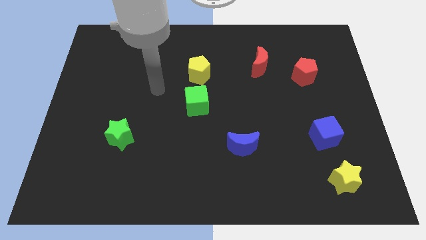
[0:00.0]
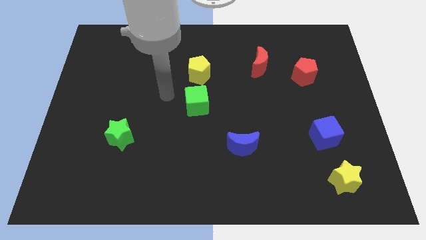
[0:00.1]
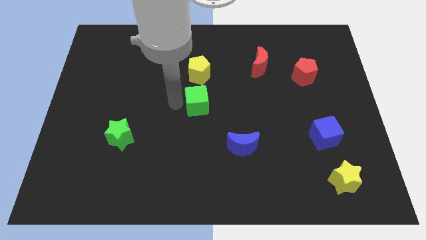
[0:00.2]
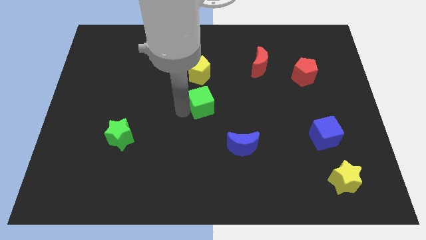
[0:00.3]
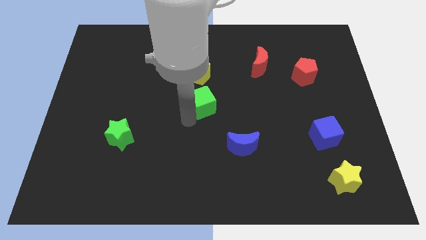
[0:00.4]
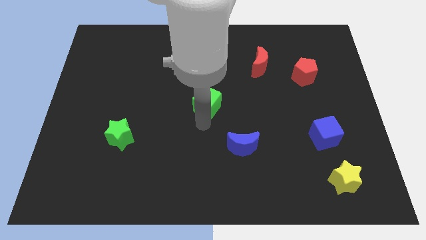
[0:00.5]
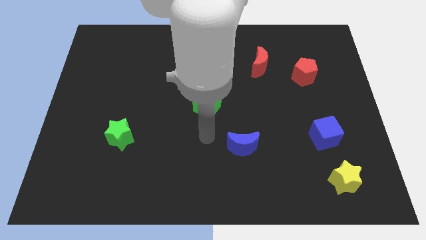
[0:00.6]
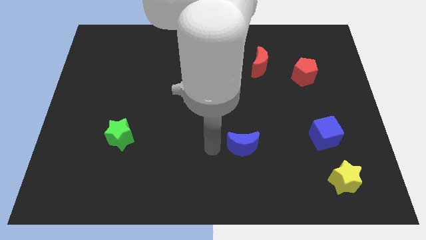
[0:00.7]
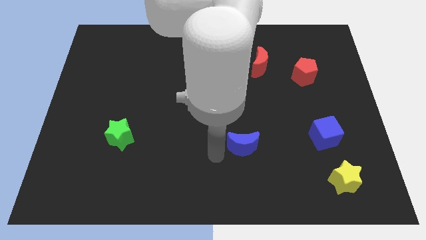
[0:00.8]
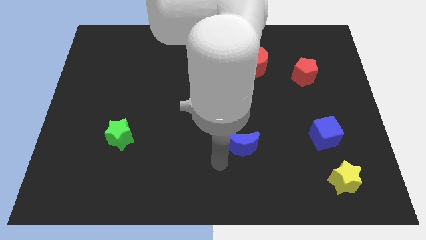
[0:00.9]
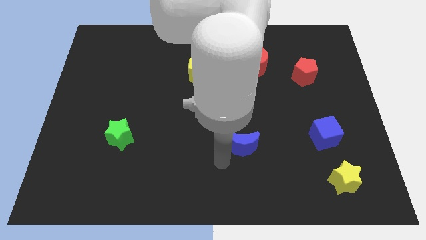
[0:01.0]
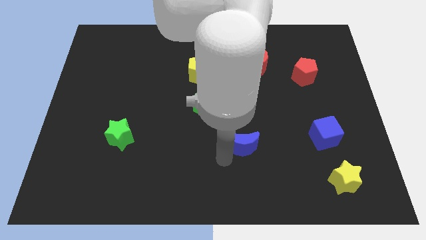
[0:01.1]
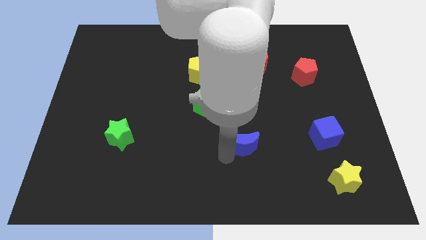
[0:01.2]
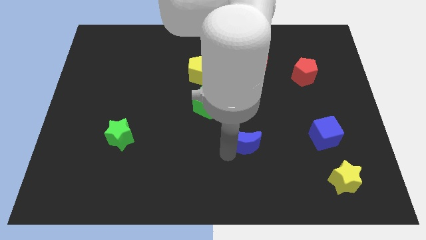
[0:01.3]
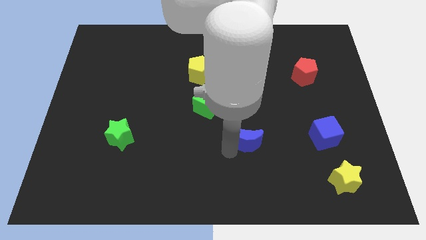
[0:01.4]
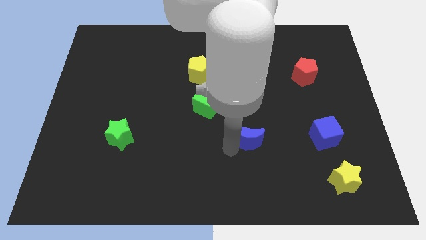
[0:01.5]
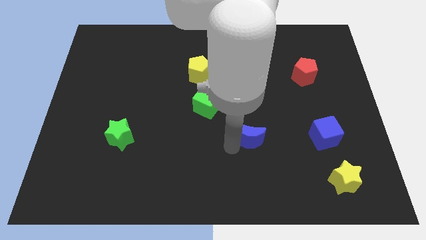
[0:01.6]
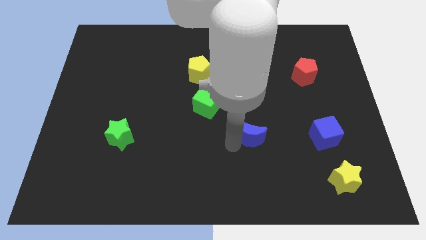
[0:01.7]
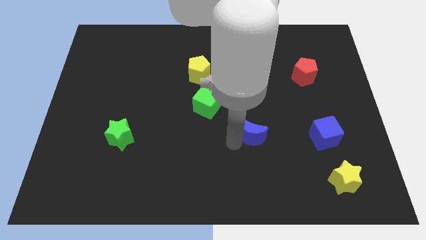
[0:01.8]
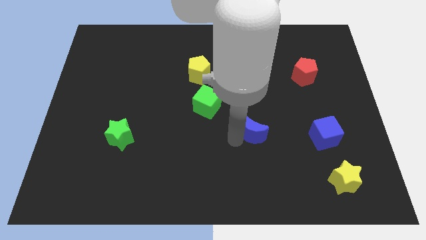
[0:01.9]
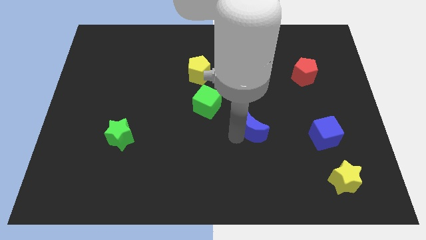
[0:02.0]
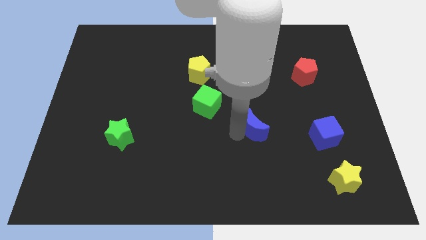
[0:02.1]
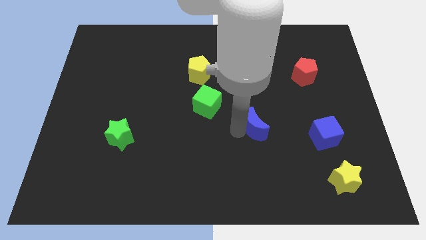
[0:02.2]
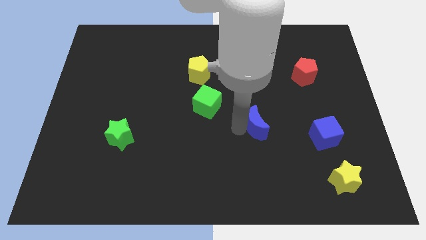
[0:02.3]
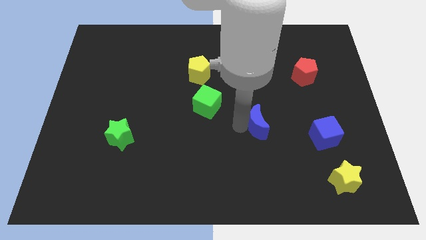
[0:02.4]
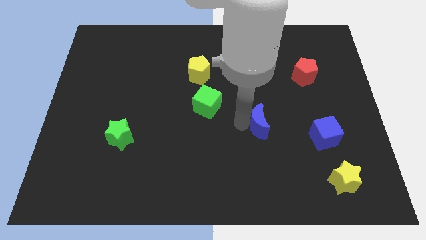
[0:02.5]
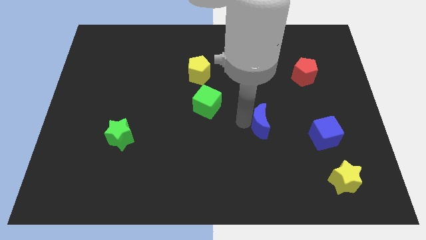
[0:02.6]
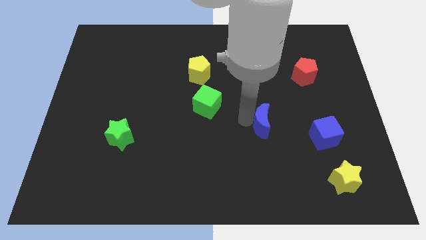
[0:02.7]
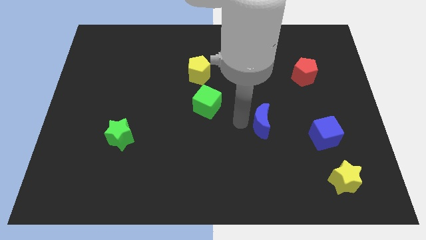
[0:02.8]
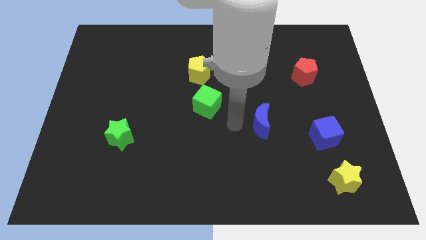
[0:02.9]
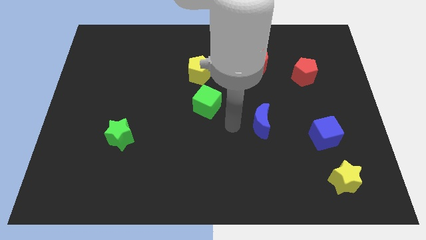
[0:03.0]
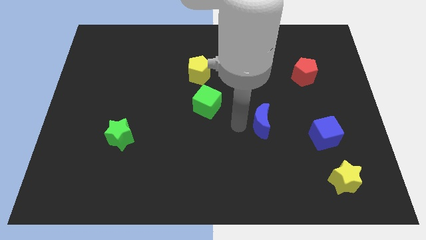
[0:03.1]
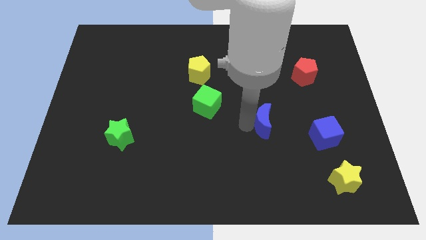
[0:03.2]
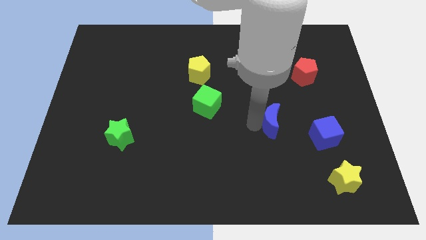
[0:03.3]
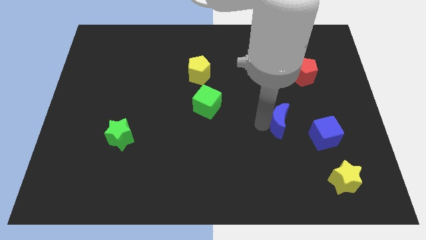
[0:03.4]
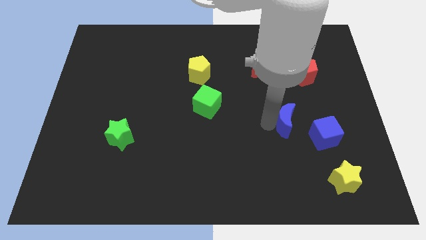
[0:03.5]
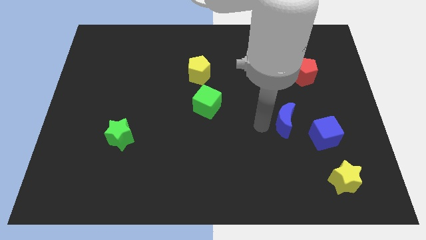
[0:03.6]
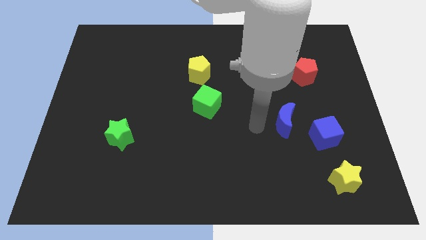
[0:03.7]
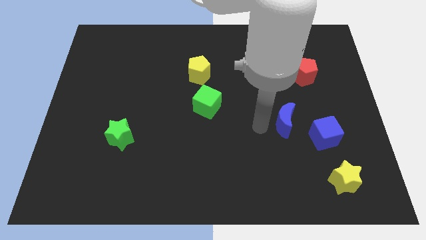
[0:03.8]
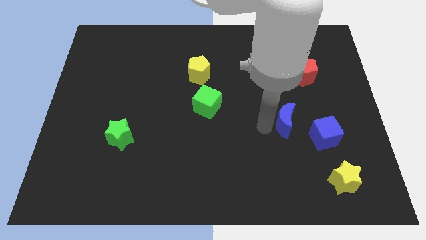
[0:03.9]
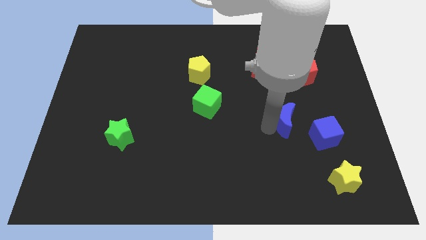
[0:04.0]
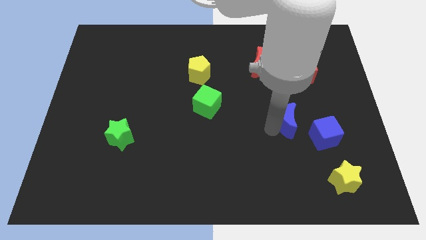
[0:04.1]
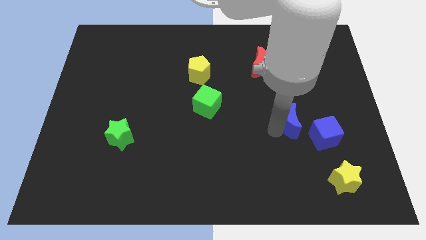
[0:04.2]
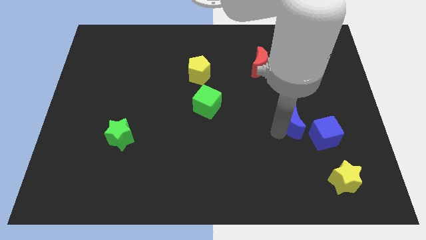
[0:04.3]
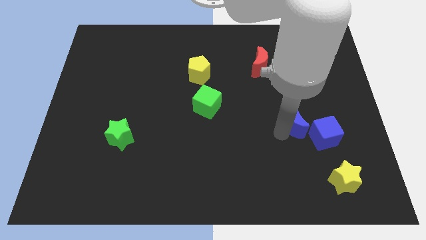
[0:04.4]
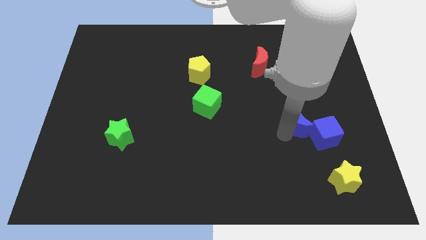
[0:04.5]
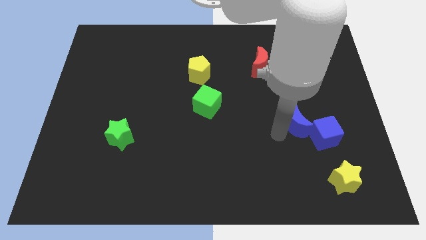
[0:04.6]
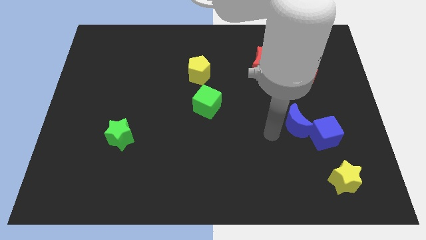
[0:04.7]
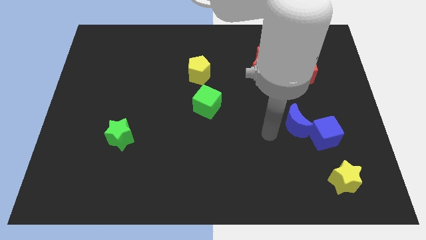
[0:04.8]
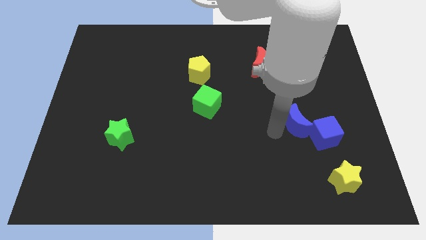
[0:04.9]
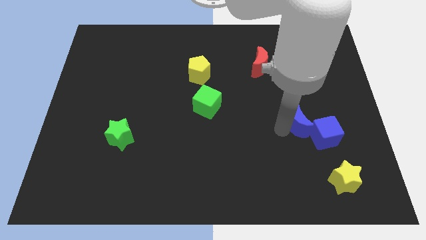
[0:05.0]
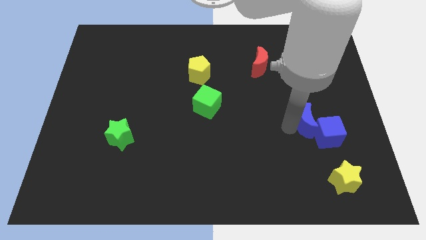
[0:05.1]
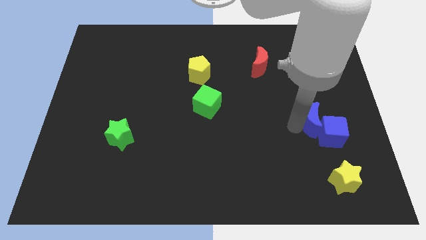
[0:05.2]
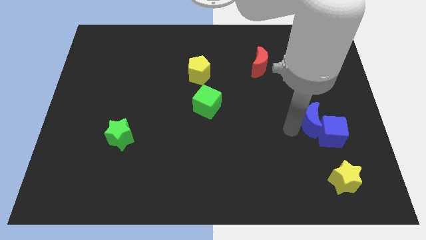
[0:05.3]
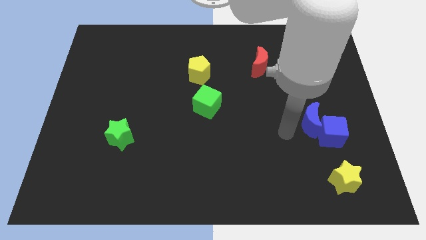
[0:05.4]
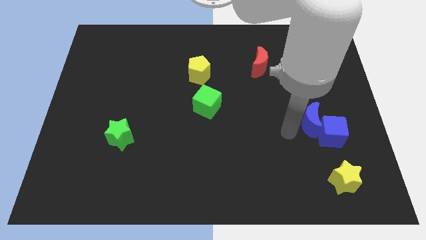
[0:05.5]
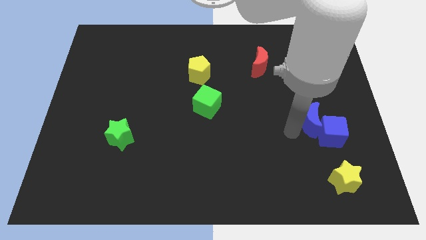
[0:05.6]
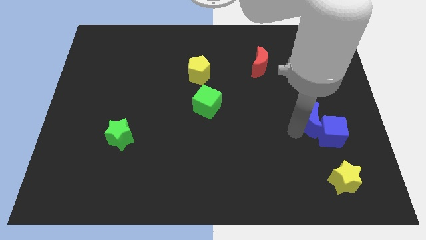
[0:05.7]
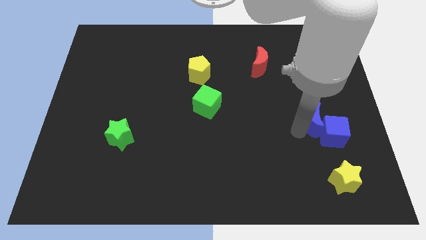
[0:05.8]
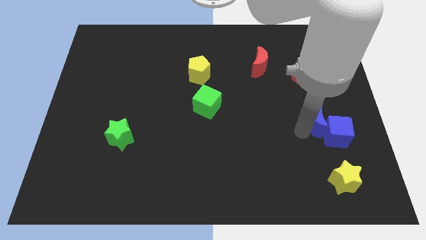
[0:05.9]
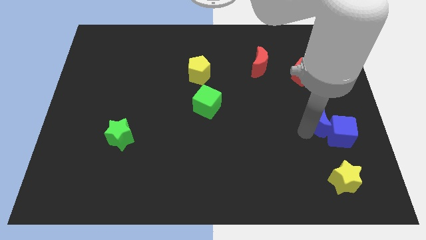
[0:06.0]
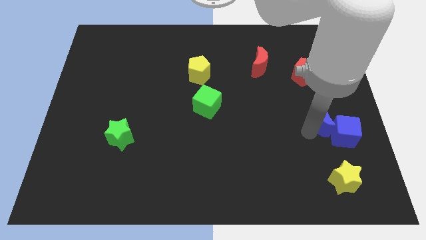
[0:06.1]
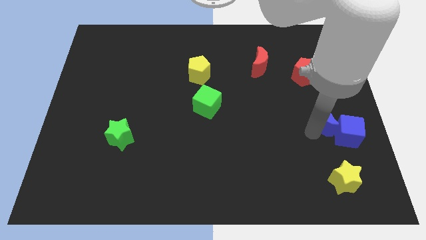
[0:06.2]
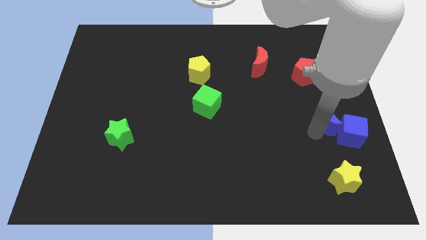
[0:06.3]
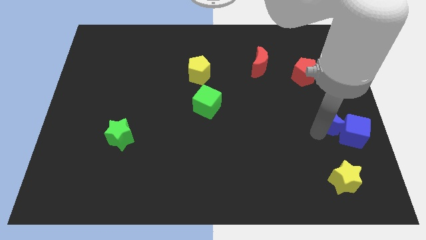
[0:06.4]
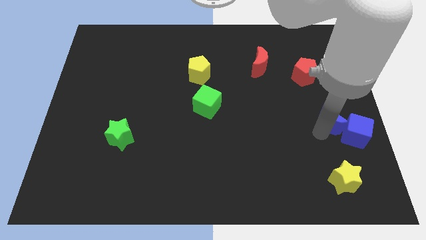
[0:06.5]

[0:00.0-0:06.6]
slide the blue moon to the right side

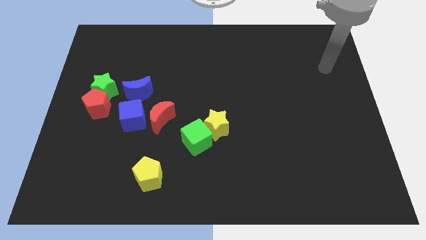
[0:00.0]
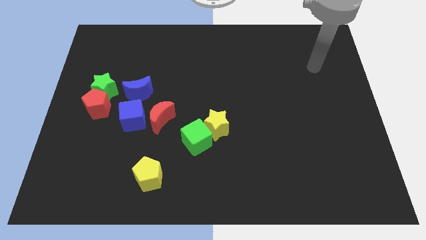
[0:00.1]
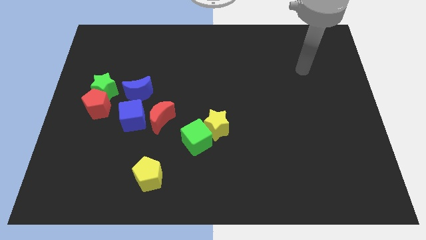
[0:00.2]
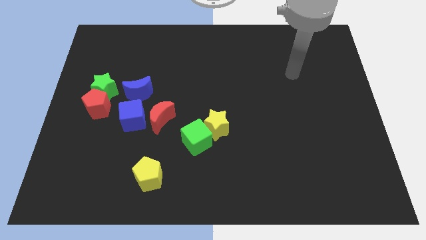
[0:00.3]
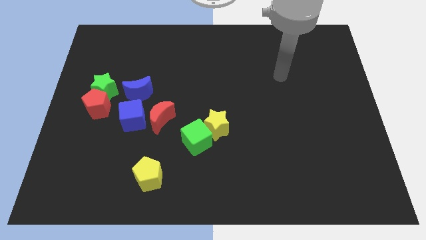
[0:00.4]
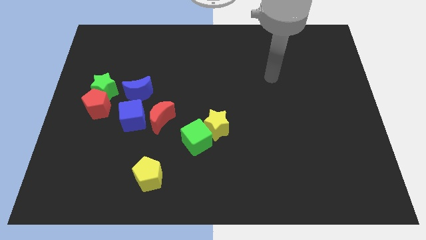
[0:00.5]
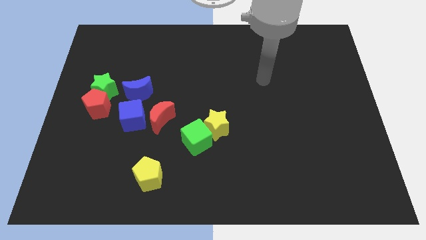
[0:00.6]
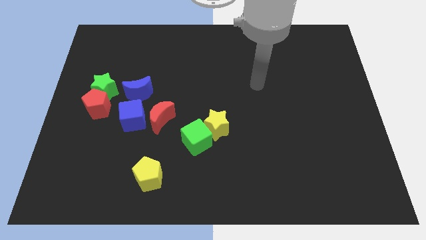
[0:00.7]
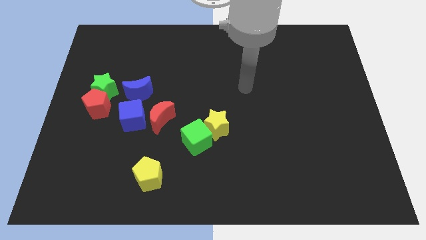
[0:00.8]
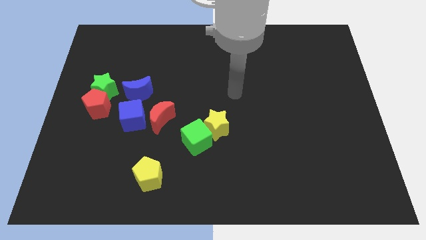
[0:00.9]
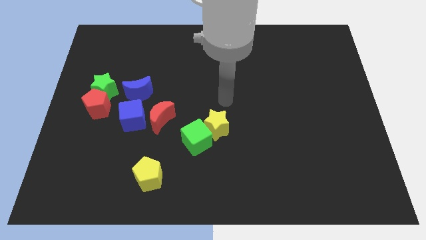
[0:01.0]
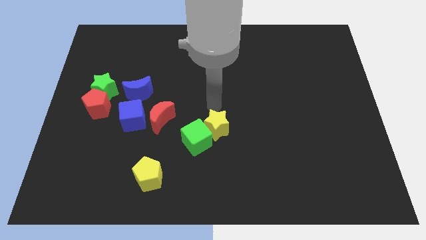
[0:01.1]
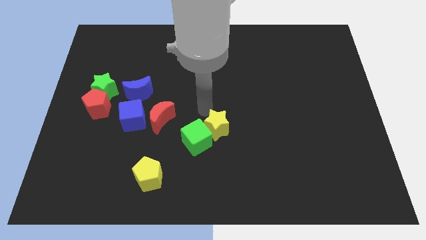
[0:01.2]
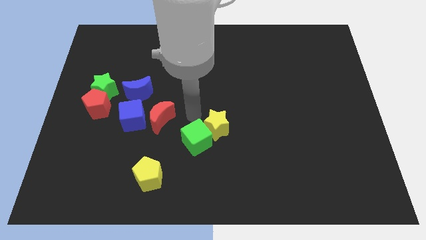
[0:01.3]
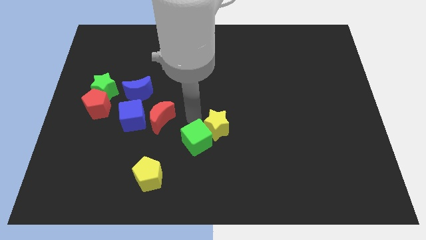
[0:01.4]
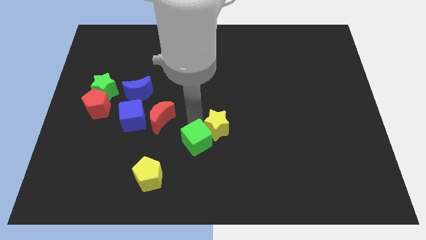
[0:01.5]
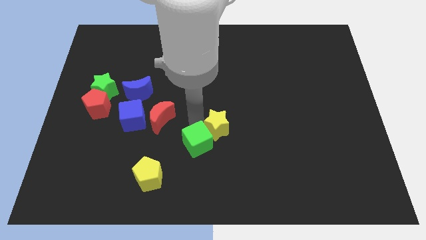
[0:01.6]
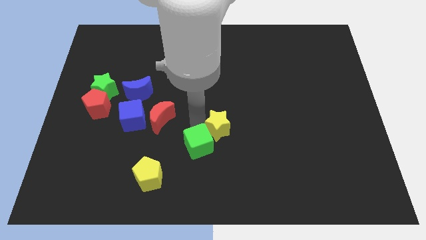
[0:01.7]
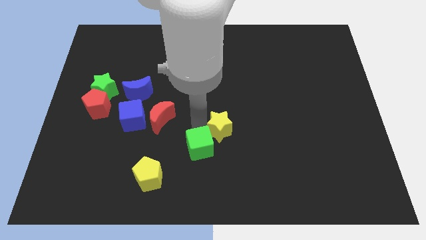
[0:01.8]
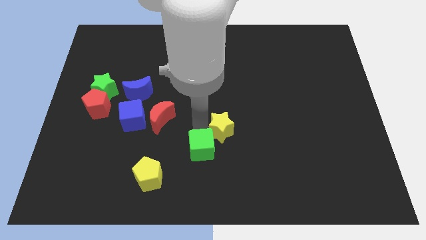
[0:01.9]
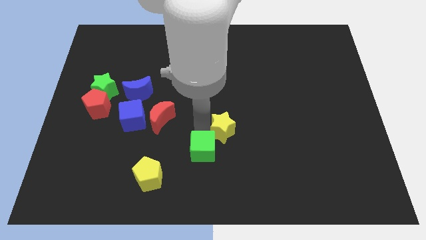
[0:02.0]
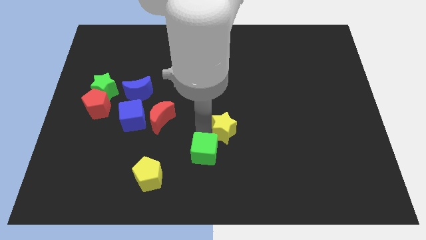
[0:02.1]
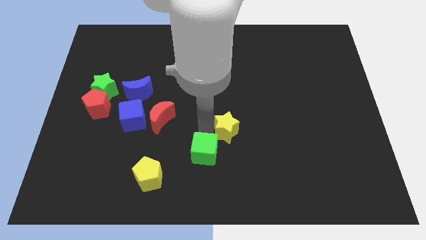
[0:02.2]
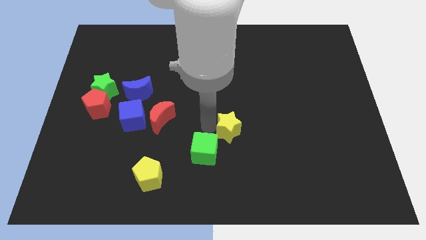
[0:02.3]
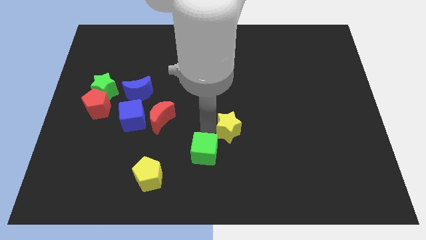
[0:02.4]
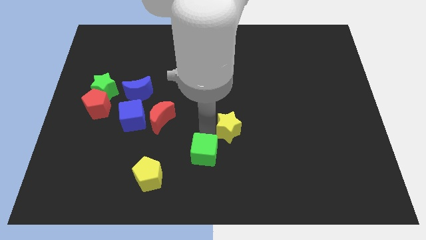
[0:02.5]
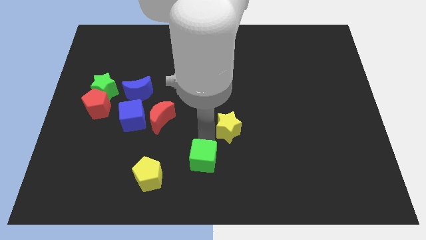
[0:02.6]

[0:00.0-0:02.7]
push the green cube to the bottom
